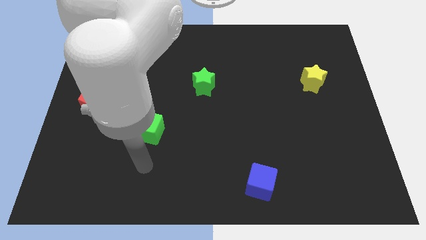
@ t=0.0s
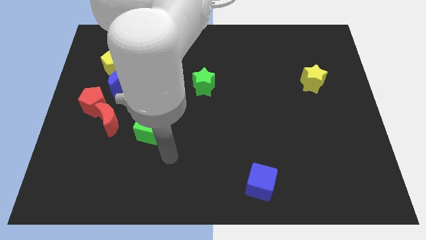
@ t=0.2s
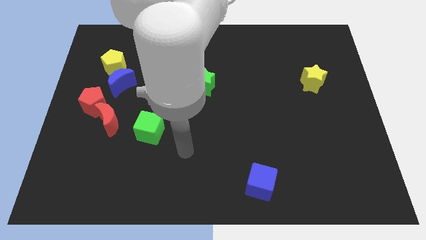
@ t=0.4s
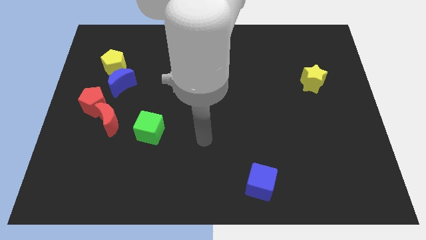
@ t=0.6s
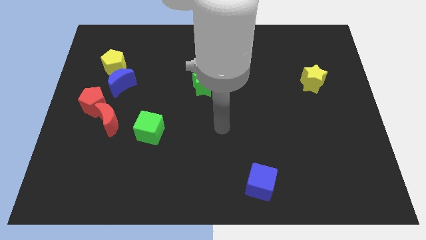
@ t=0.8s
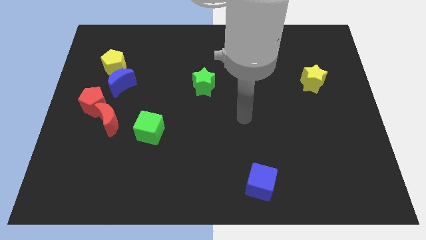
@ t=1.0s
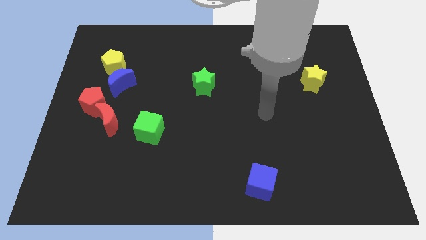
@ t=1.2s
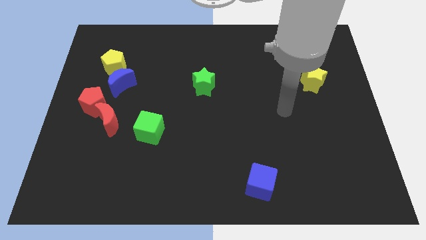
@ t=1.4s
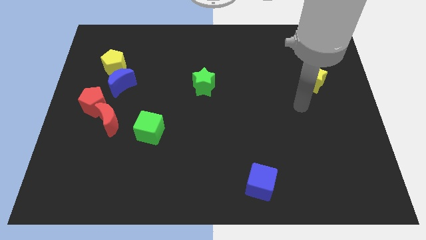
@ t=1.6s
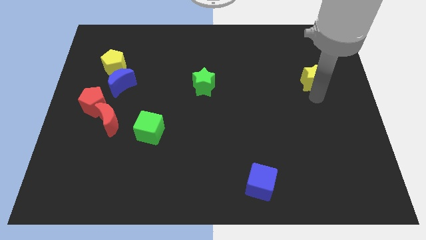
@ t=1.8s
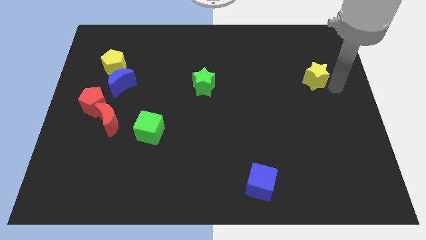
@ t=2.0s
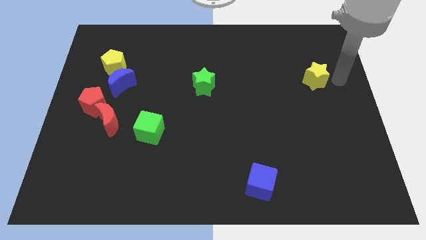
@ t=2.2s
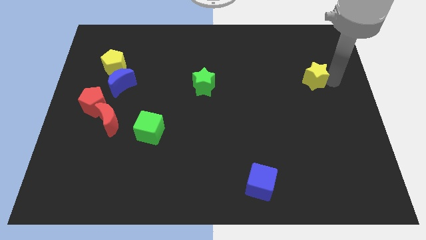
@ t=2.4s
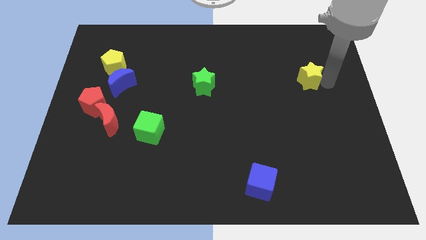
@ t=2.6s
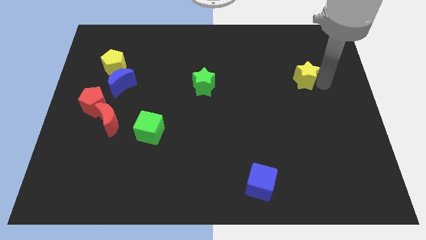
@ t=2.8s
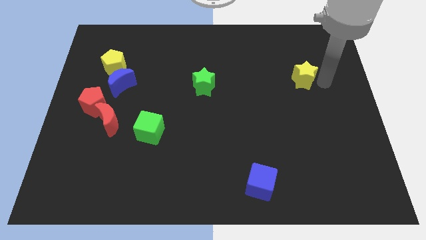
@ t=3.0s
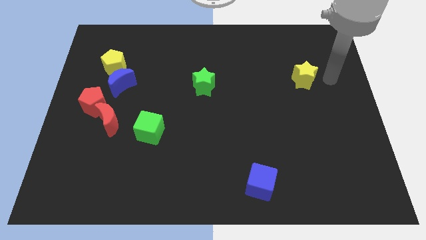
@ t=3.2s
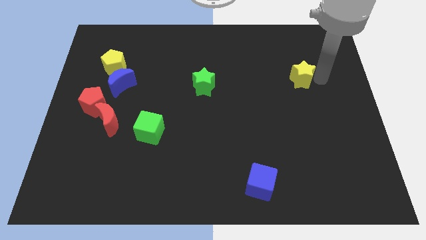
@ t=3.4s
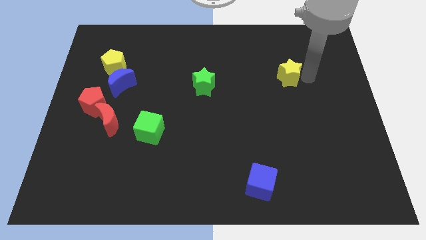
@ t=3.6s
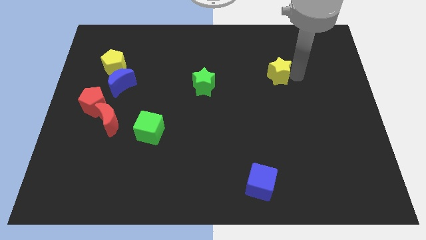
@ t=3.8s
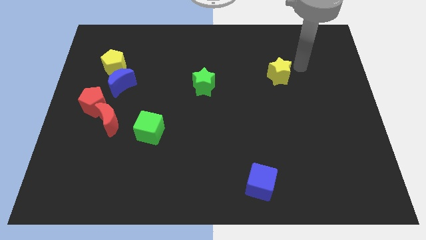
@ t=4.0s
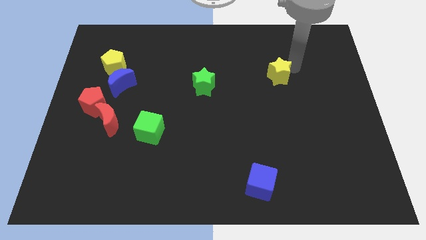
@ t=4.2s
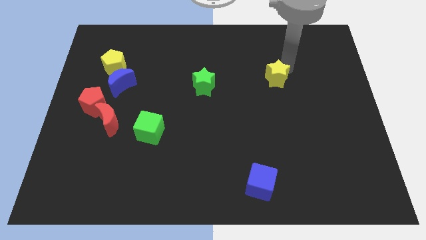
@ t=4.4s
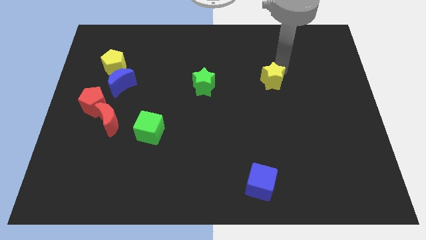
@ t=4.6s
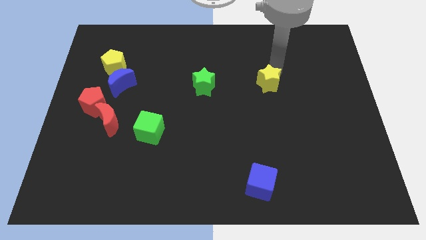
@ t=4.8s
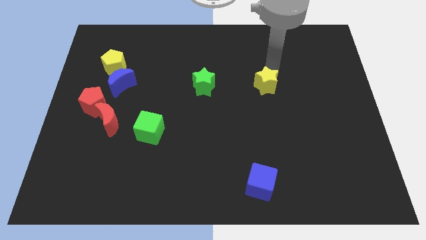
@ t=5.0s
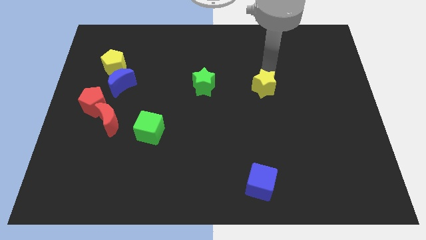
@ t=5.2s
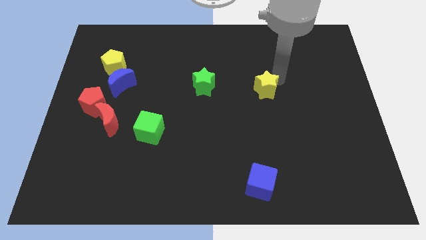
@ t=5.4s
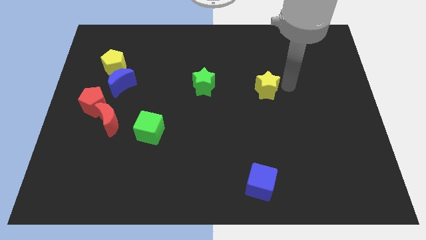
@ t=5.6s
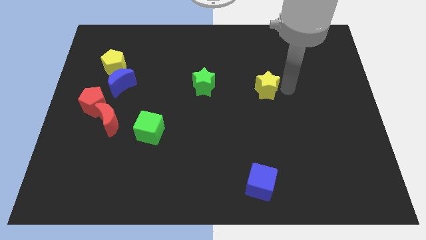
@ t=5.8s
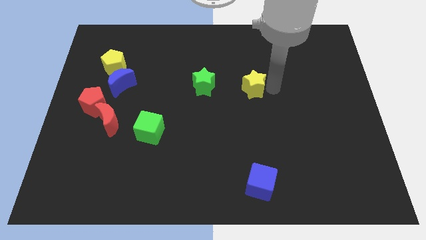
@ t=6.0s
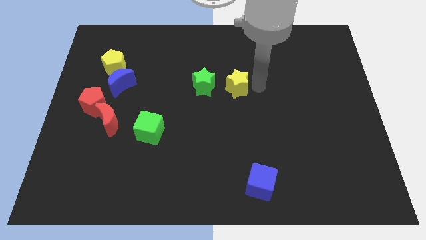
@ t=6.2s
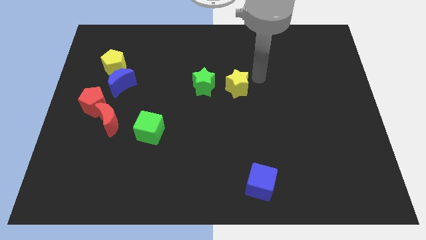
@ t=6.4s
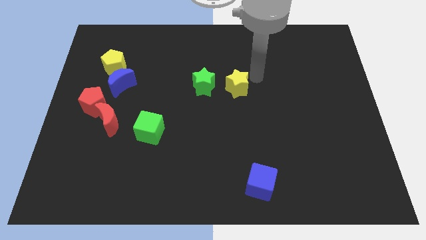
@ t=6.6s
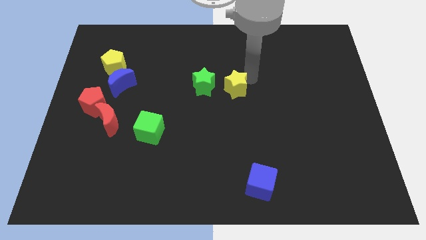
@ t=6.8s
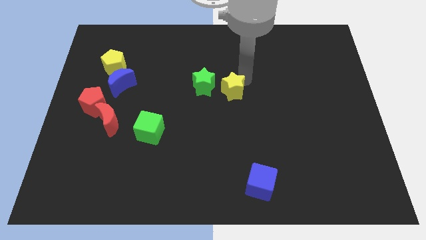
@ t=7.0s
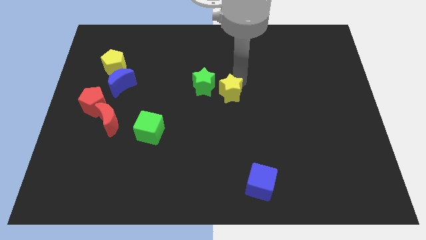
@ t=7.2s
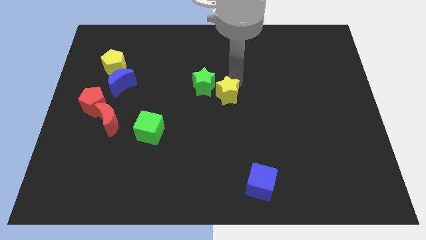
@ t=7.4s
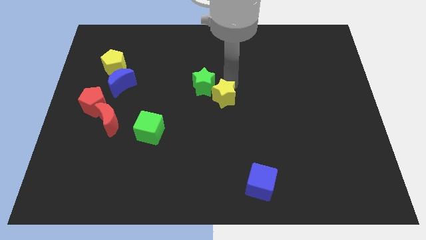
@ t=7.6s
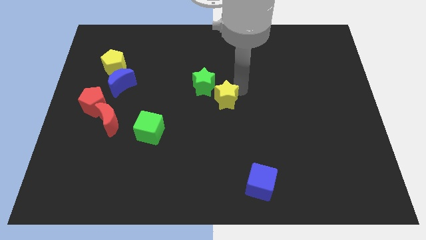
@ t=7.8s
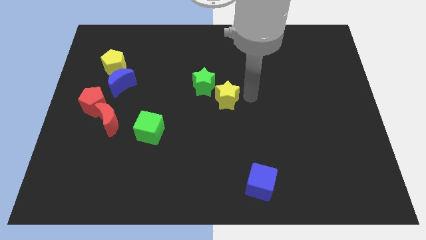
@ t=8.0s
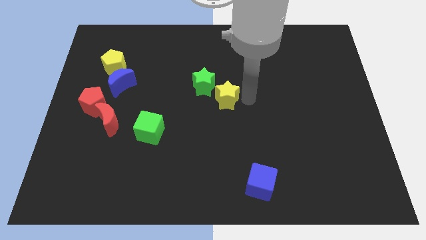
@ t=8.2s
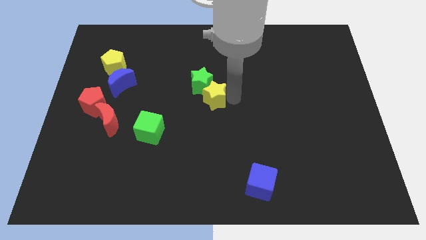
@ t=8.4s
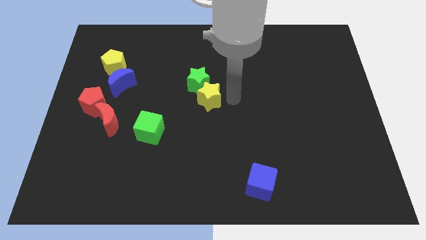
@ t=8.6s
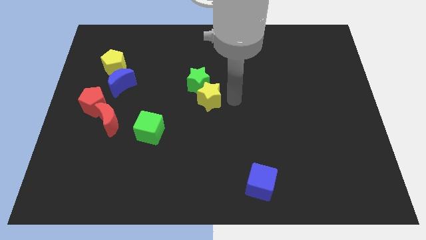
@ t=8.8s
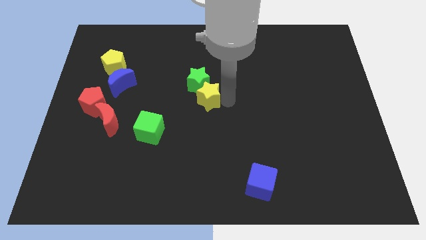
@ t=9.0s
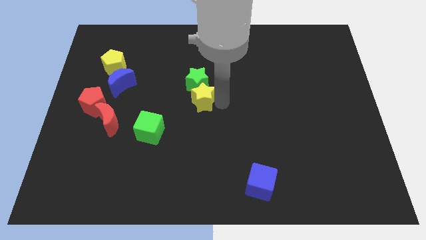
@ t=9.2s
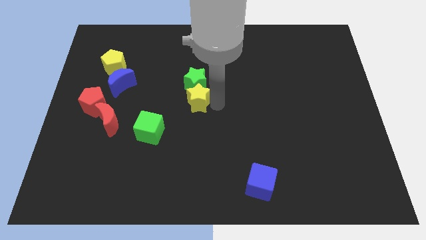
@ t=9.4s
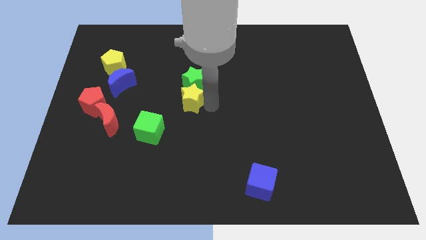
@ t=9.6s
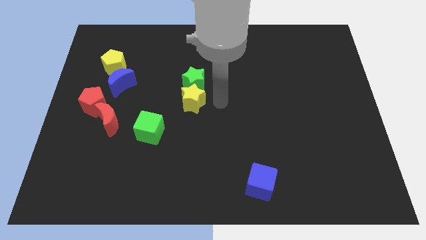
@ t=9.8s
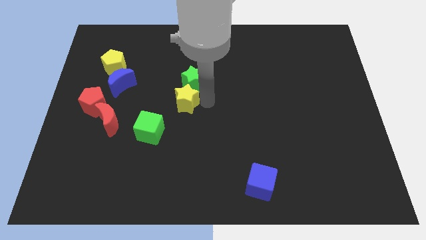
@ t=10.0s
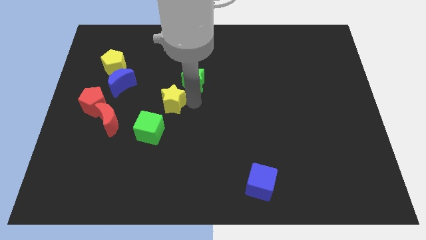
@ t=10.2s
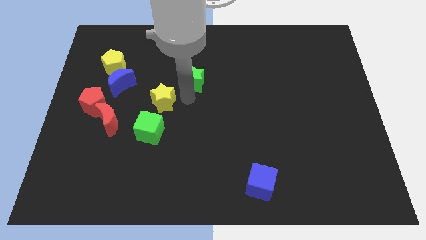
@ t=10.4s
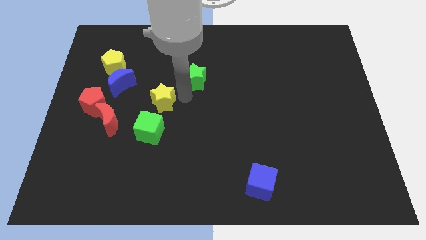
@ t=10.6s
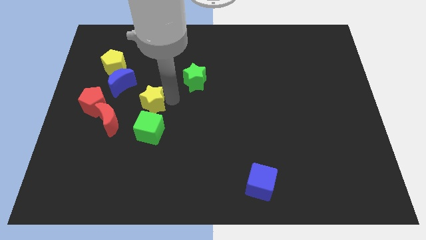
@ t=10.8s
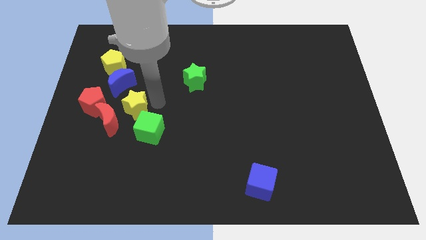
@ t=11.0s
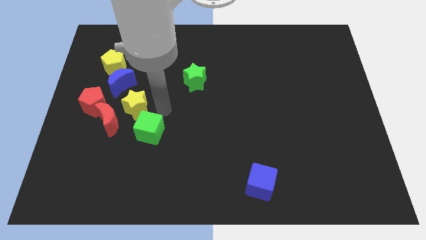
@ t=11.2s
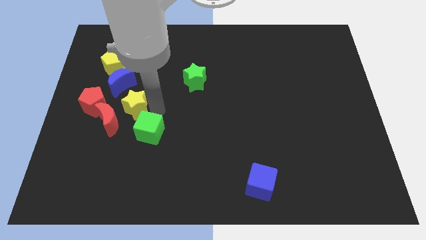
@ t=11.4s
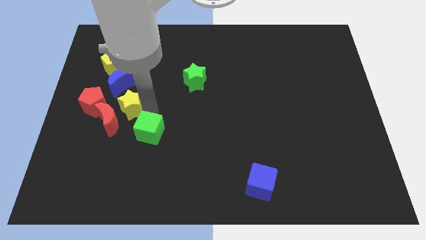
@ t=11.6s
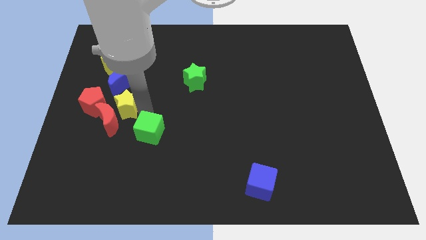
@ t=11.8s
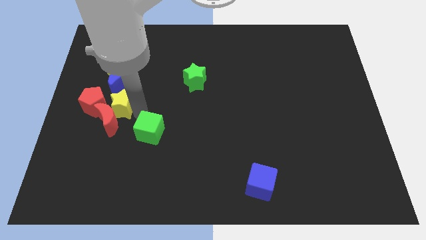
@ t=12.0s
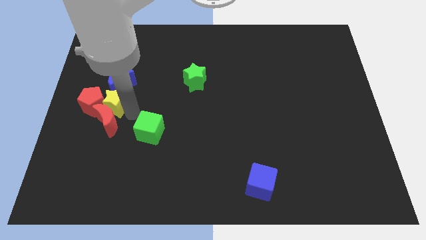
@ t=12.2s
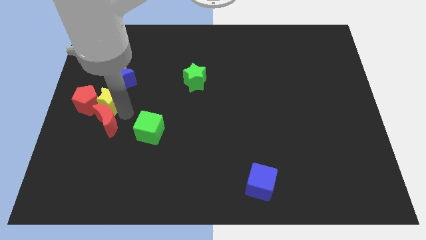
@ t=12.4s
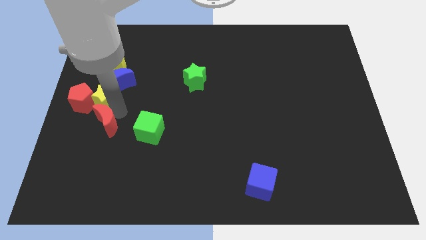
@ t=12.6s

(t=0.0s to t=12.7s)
put the yellow star to the left side of the board

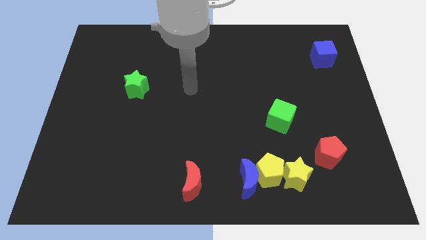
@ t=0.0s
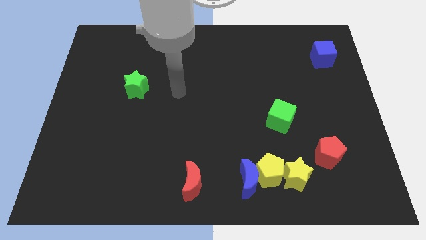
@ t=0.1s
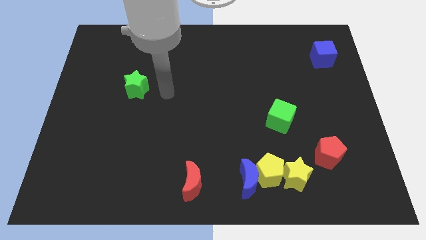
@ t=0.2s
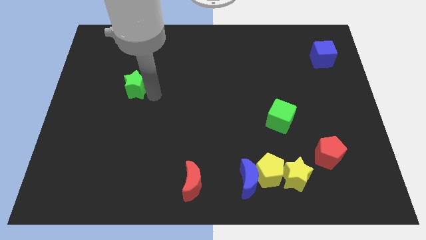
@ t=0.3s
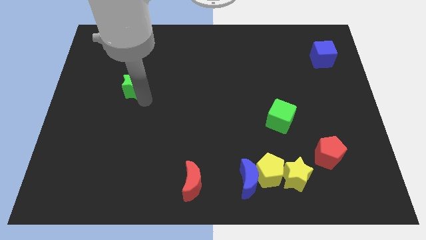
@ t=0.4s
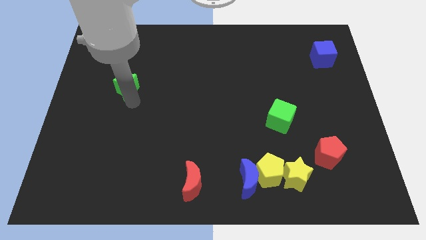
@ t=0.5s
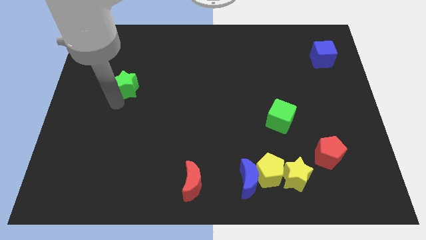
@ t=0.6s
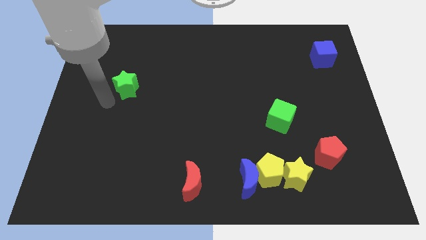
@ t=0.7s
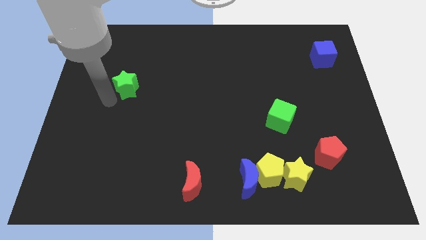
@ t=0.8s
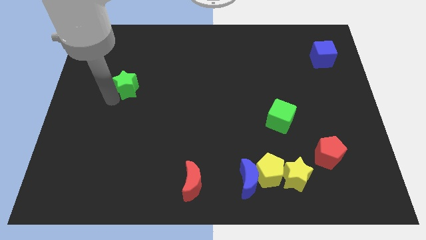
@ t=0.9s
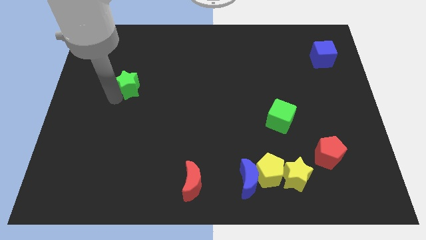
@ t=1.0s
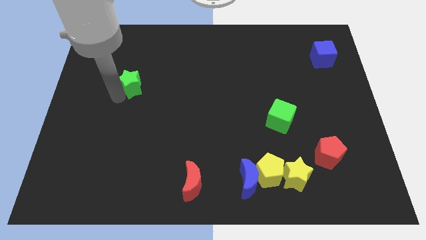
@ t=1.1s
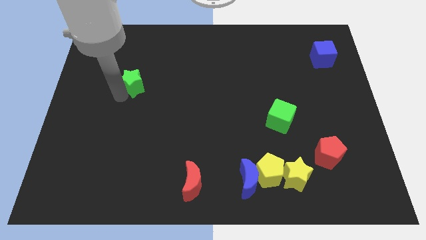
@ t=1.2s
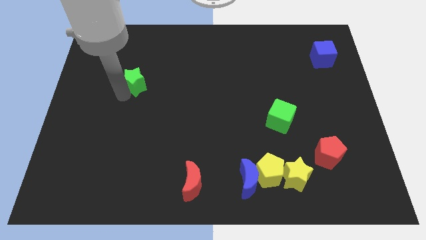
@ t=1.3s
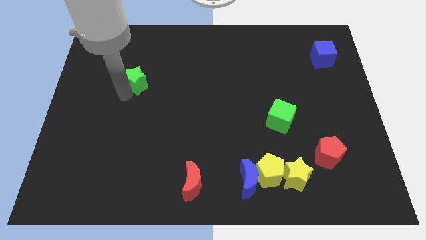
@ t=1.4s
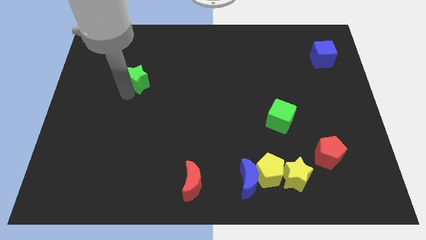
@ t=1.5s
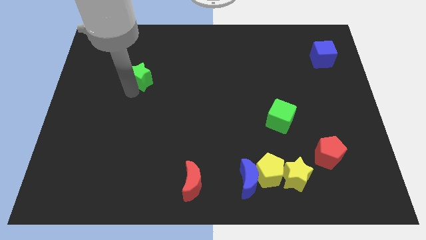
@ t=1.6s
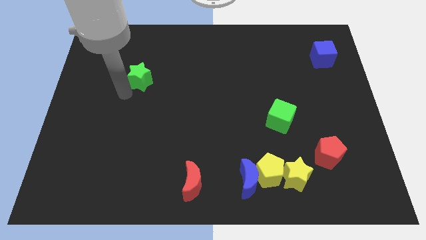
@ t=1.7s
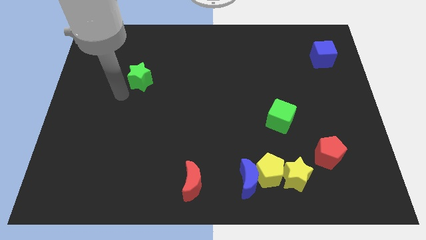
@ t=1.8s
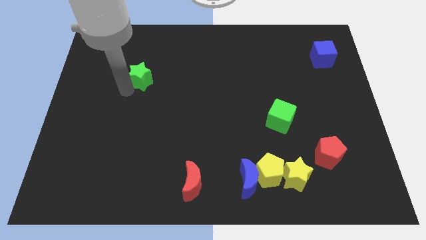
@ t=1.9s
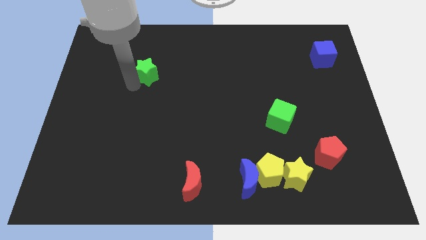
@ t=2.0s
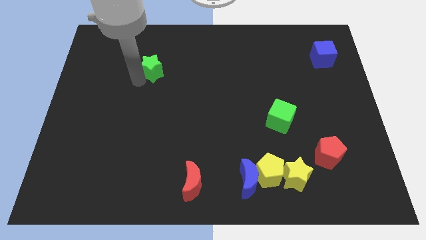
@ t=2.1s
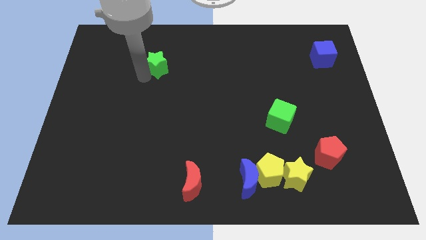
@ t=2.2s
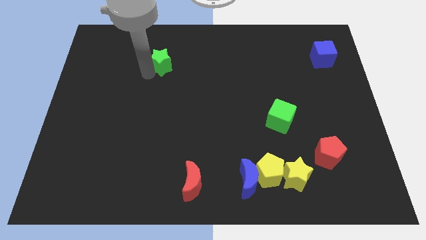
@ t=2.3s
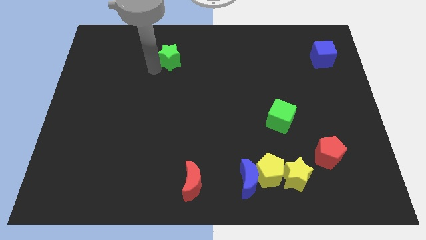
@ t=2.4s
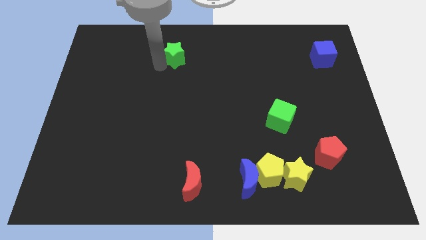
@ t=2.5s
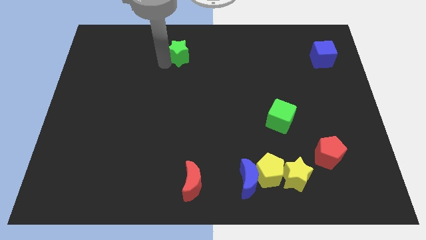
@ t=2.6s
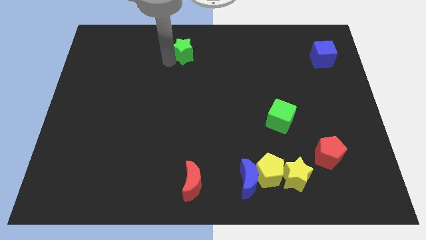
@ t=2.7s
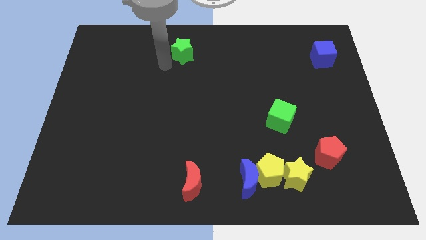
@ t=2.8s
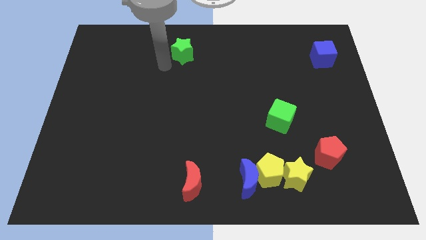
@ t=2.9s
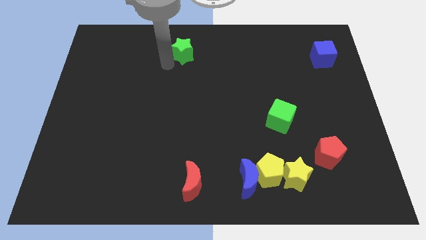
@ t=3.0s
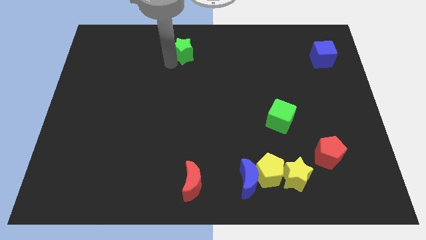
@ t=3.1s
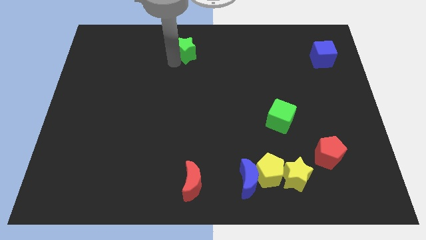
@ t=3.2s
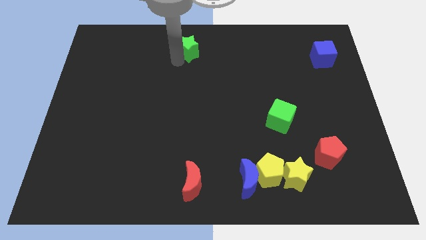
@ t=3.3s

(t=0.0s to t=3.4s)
push the green star to the towards your base
